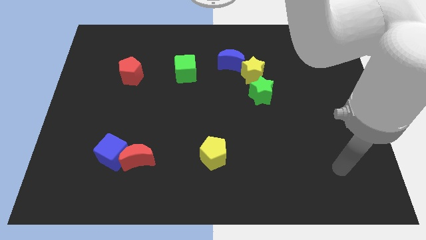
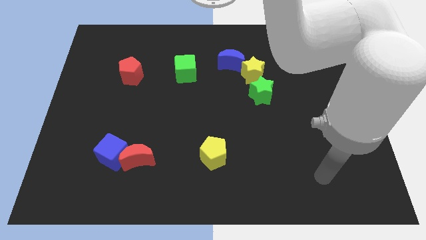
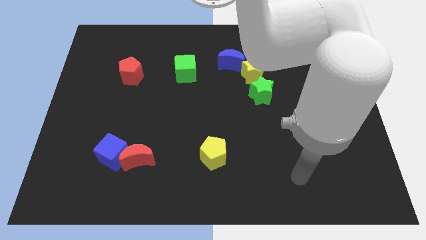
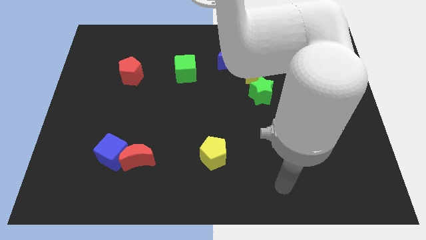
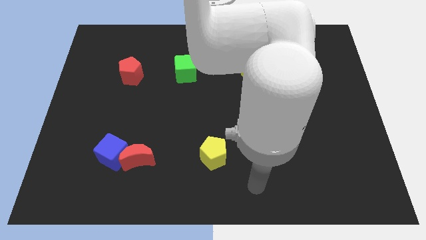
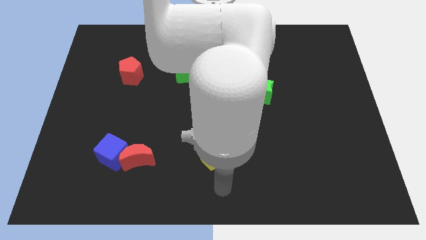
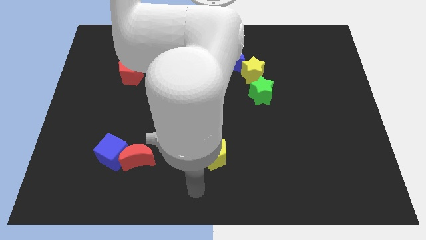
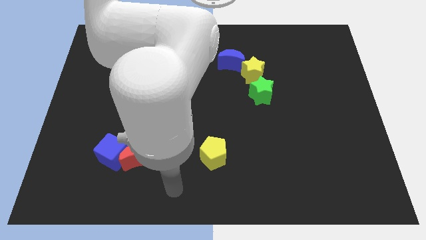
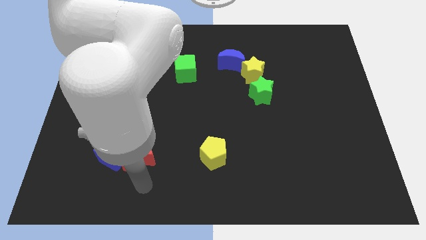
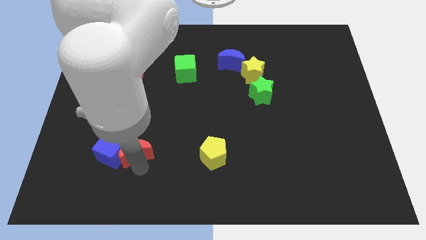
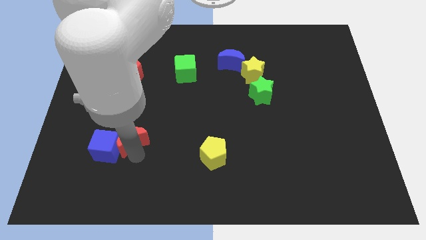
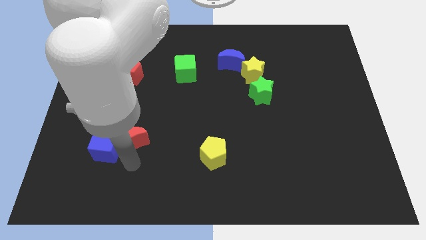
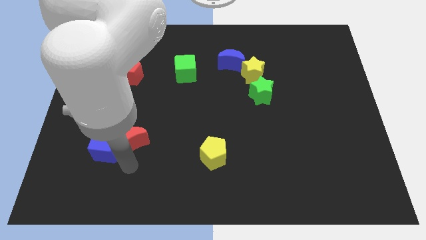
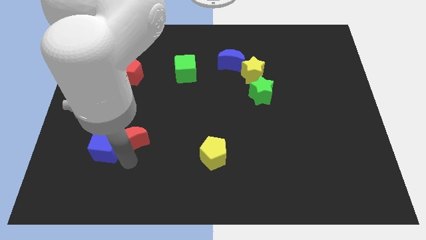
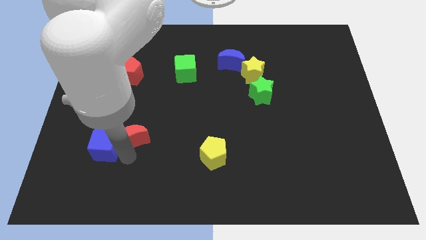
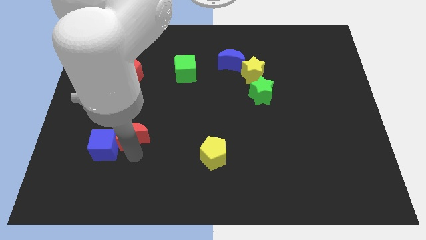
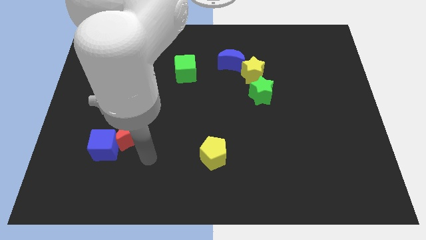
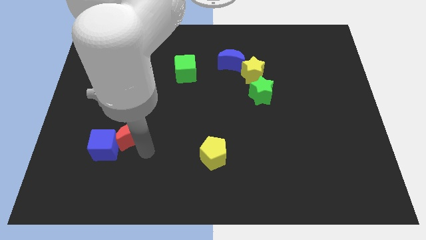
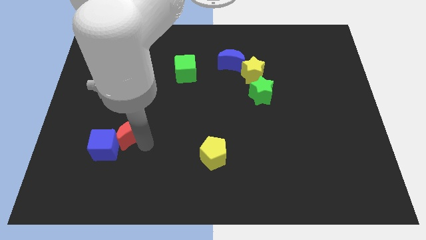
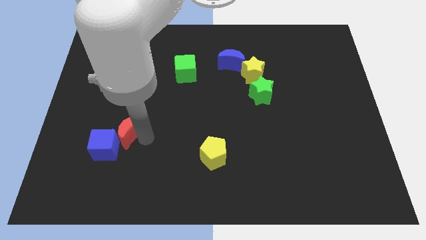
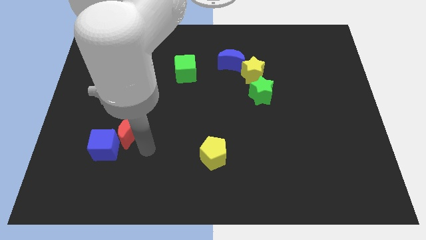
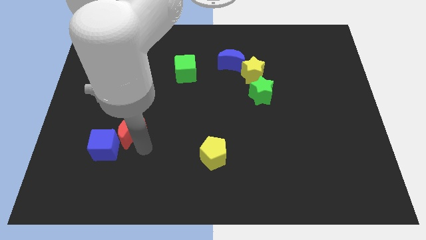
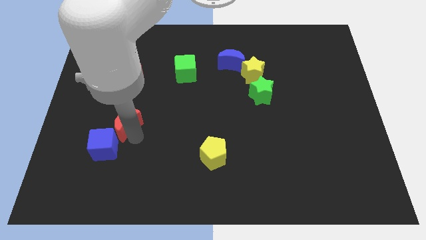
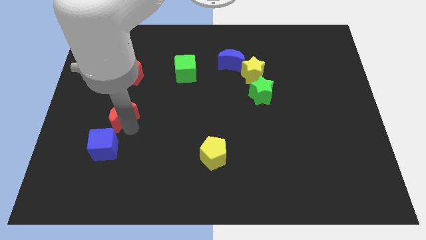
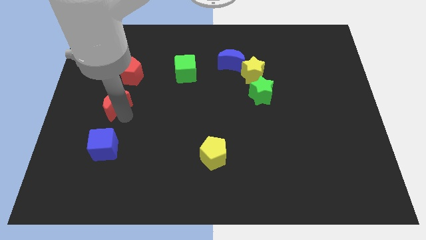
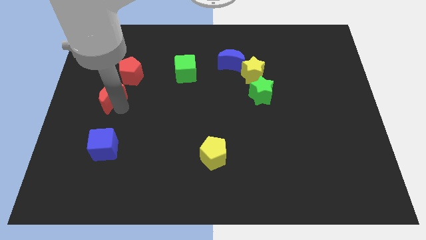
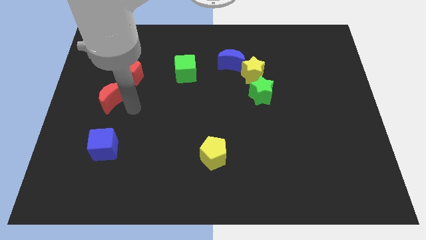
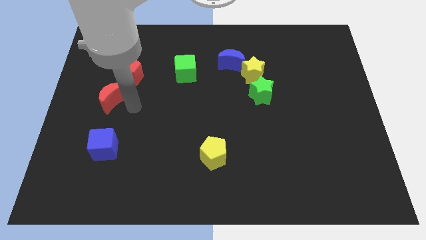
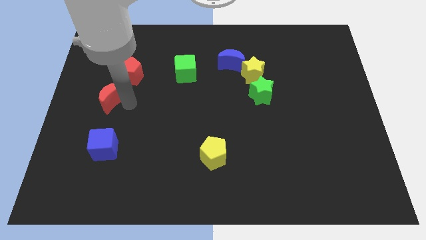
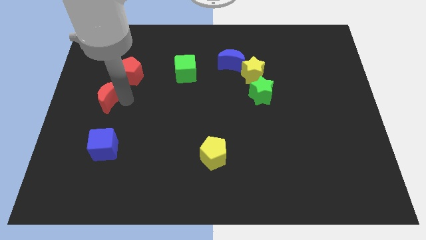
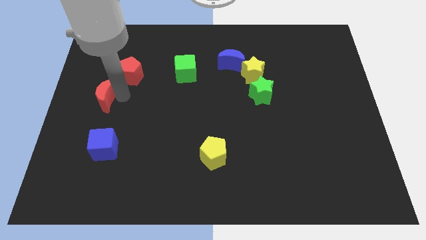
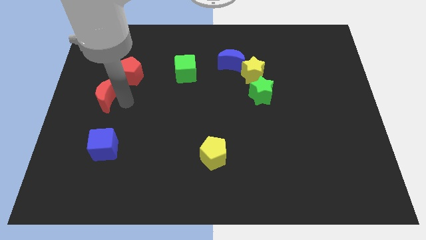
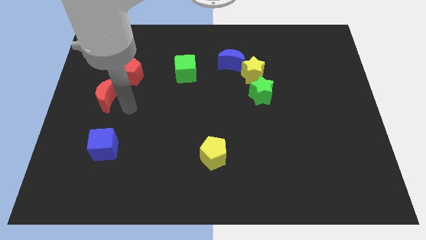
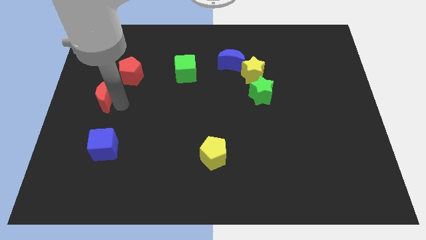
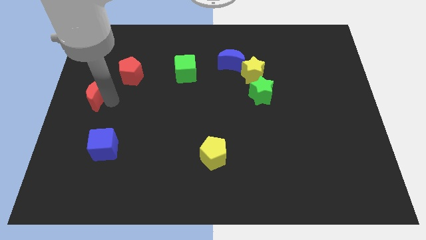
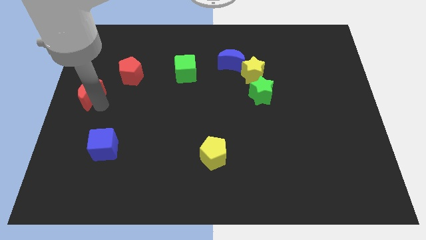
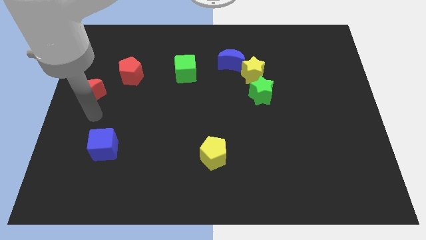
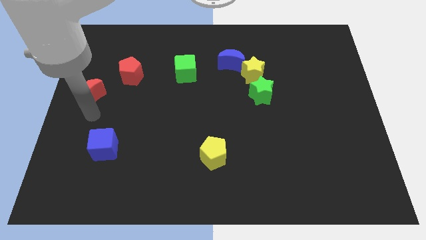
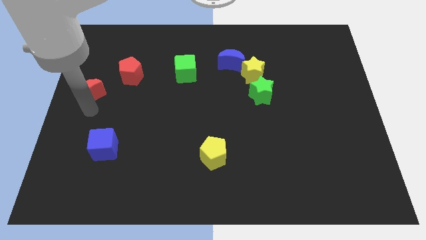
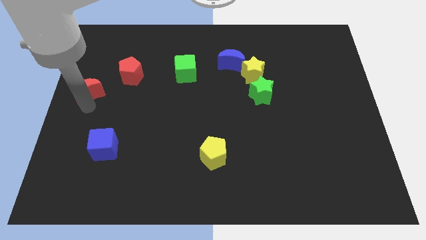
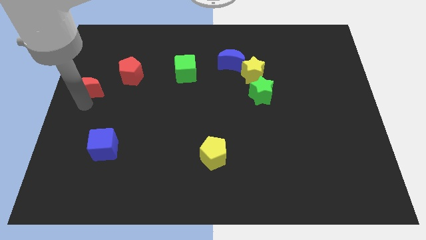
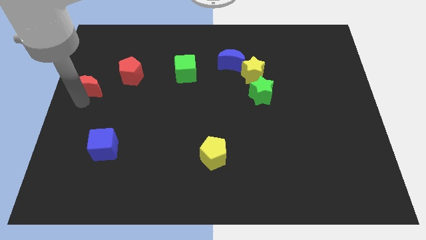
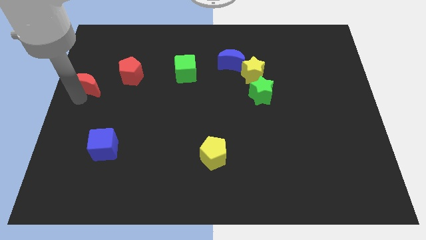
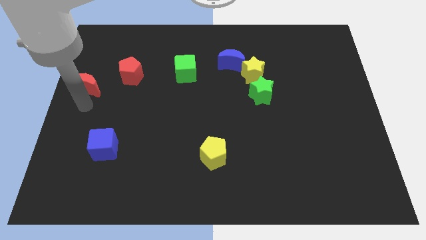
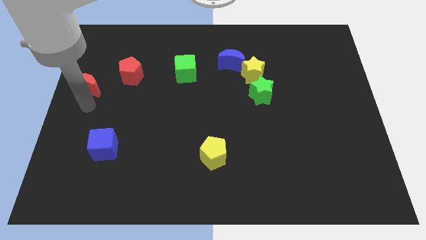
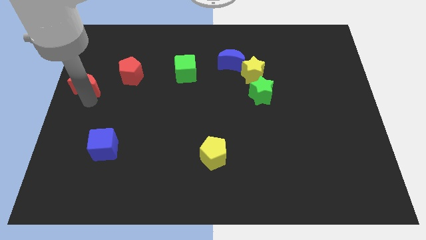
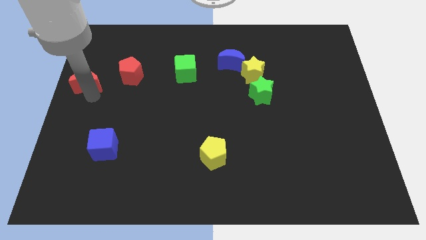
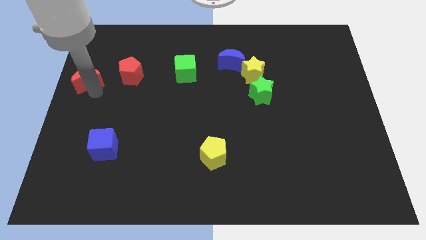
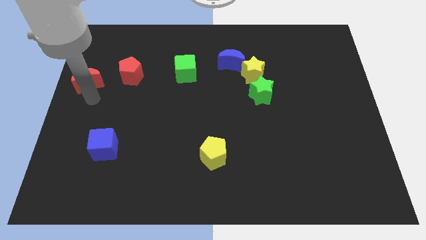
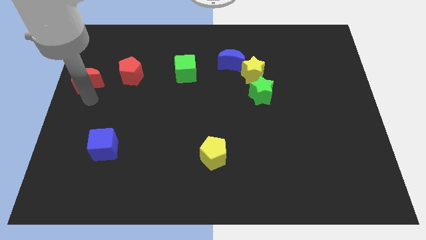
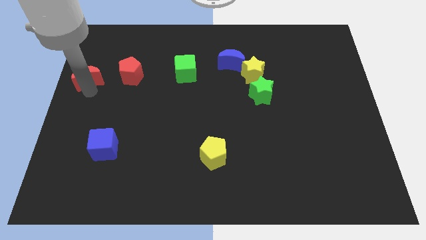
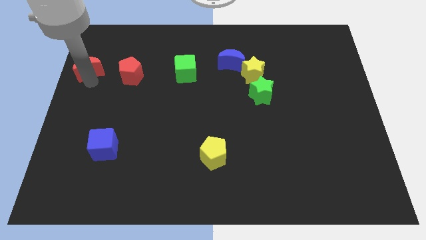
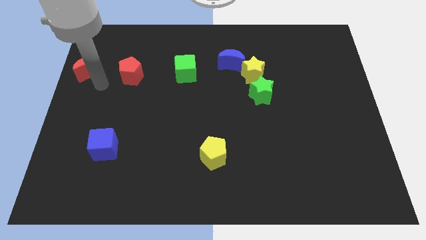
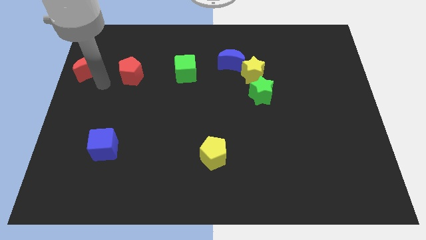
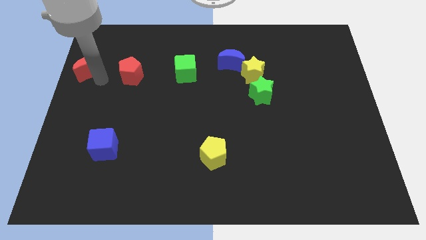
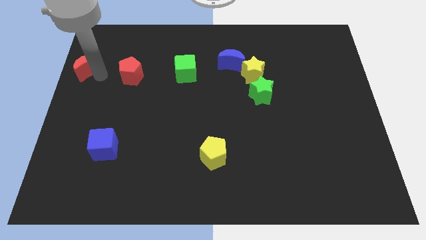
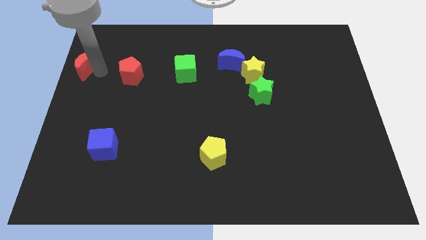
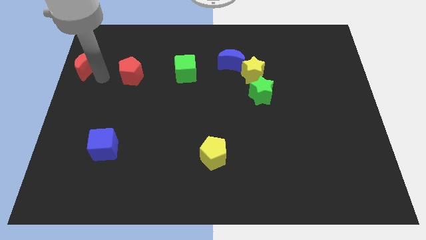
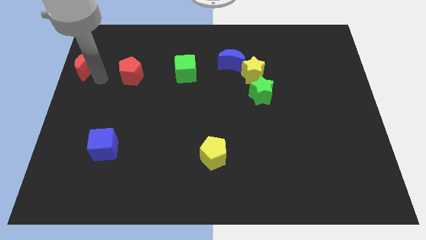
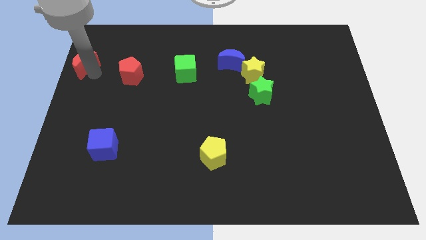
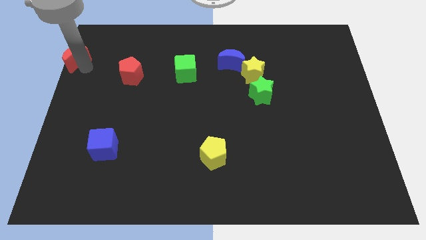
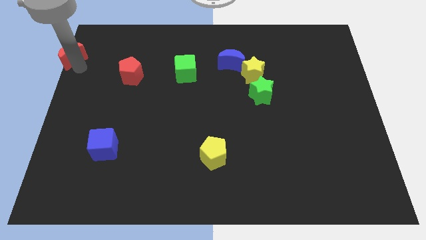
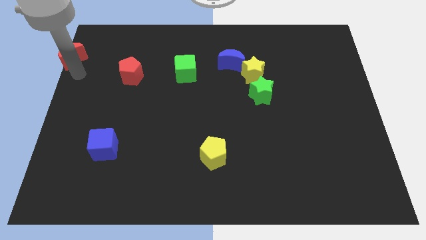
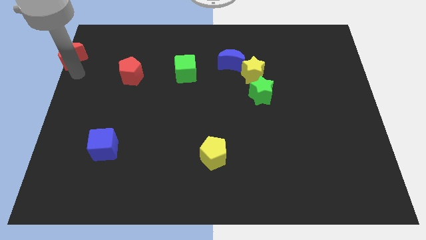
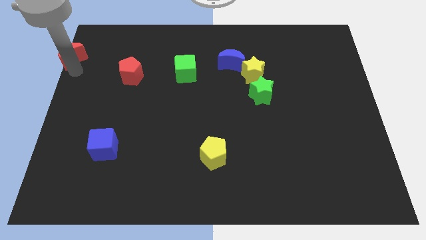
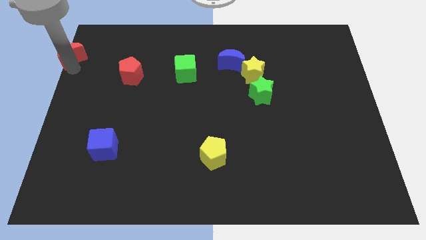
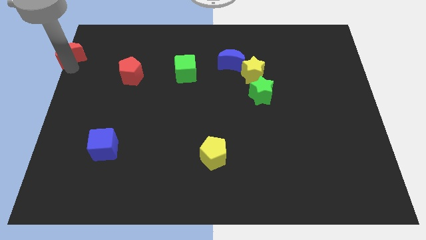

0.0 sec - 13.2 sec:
slide the red moon to the upper left corner

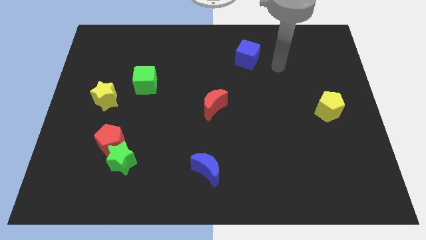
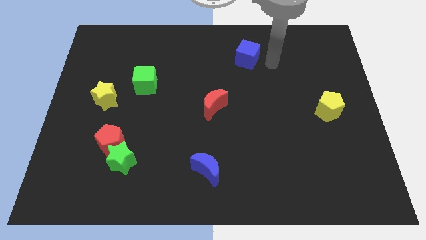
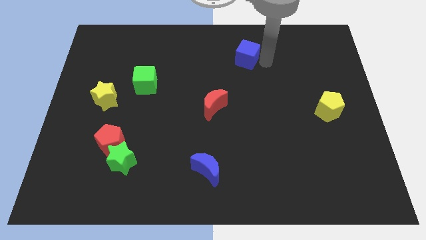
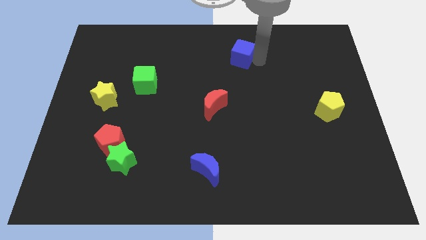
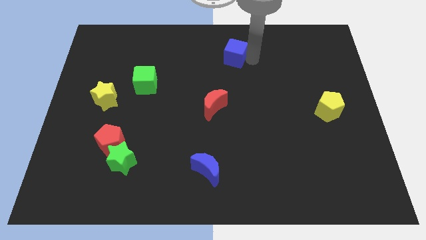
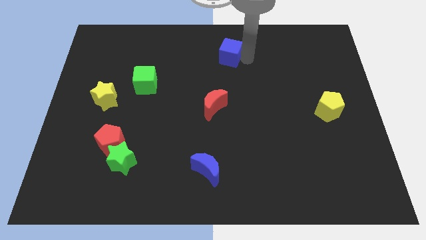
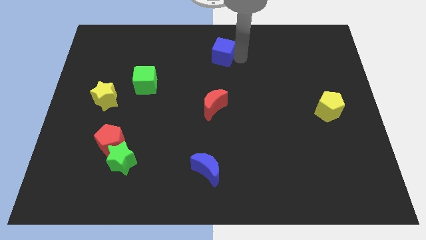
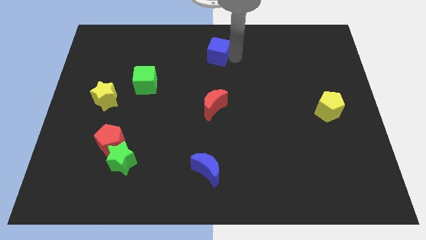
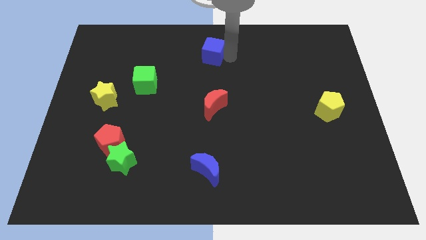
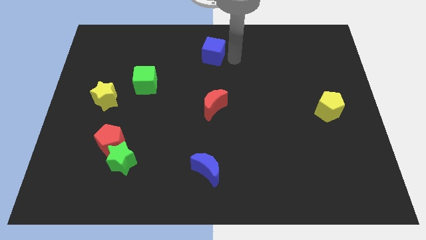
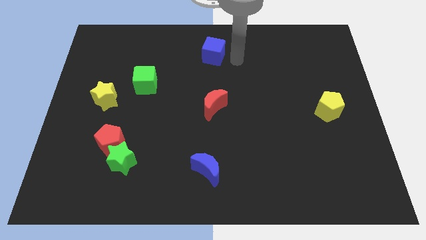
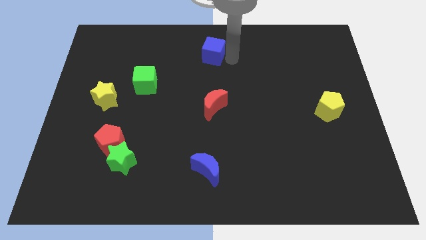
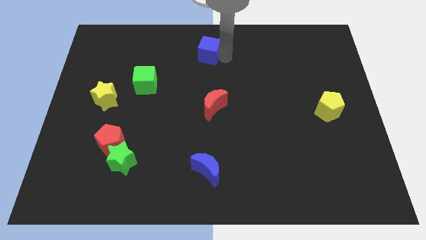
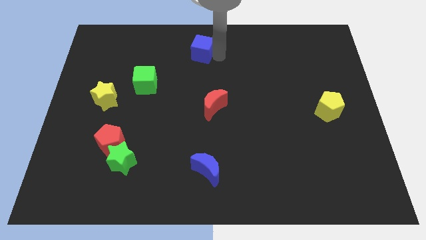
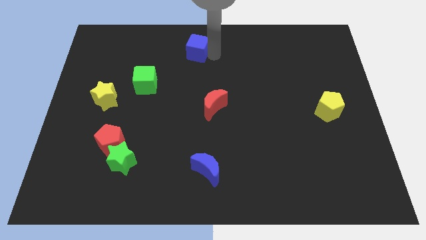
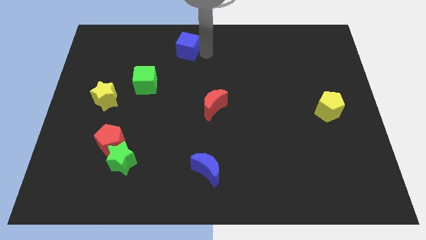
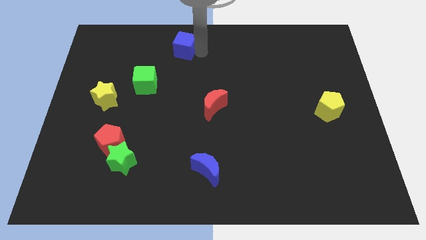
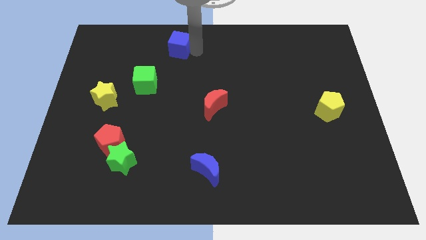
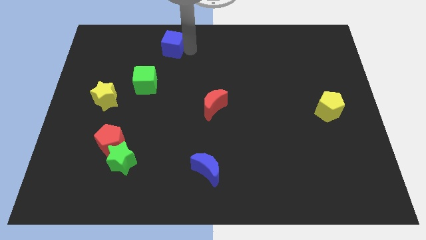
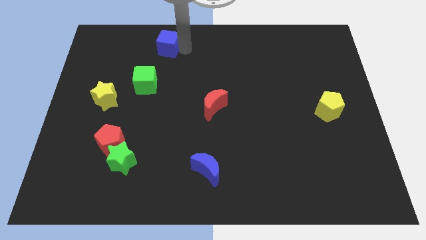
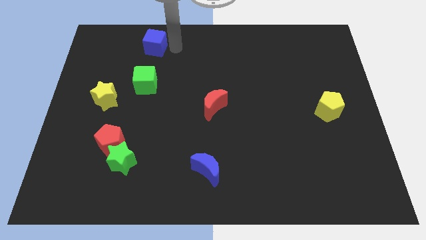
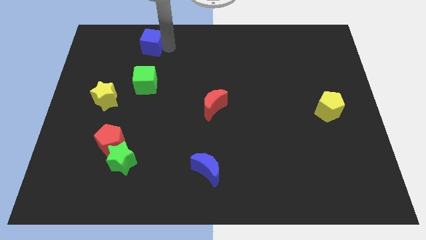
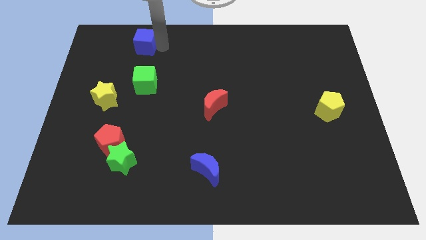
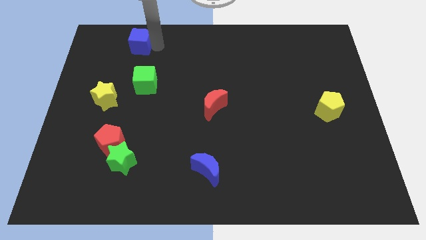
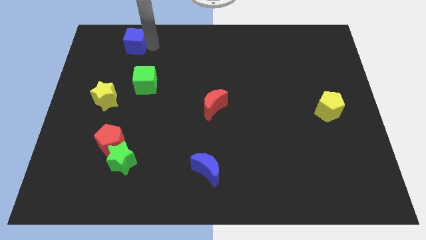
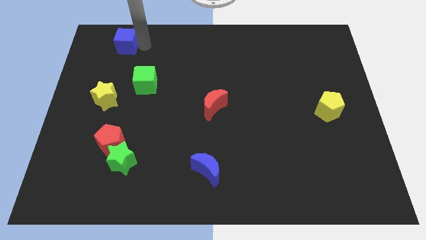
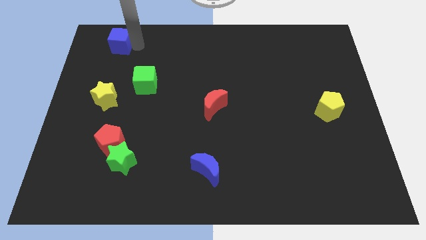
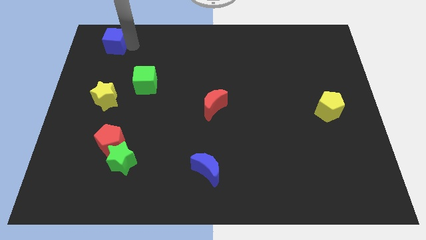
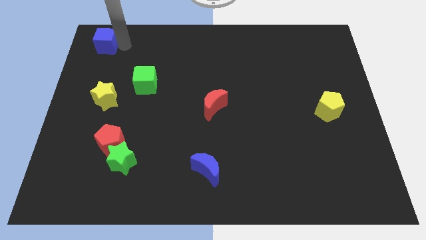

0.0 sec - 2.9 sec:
put the blue cube to the top left corner
